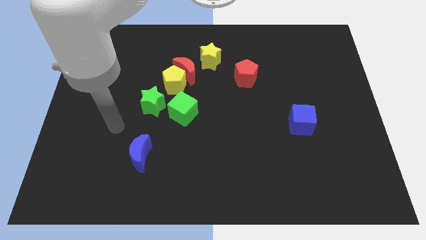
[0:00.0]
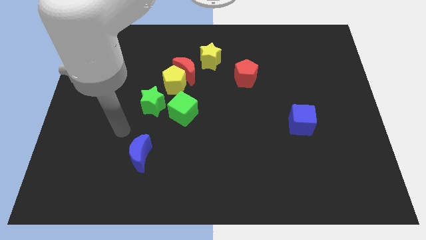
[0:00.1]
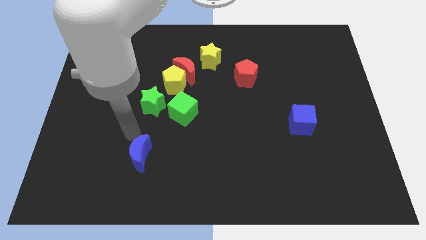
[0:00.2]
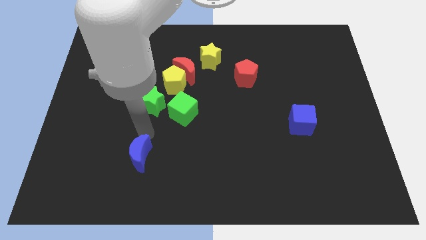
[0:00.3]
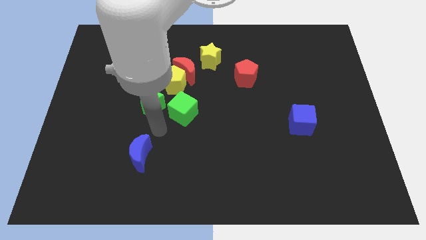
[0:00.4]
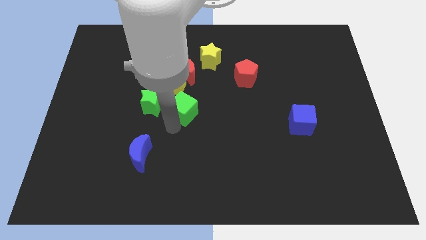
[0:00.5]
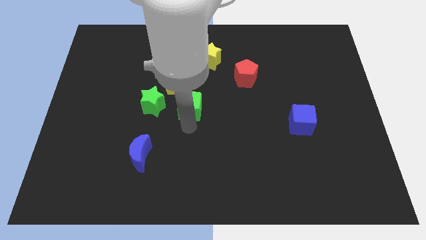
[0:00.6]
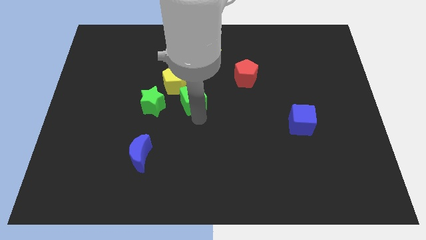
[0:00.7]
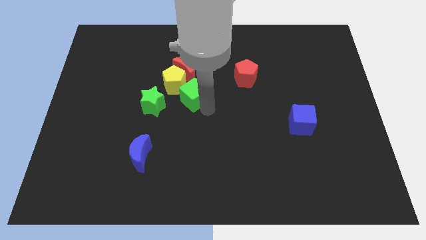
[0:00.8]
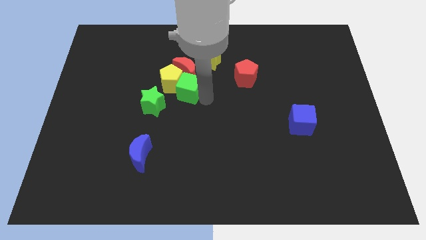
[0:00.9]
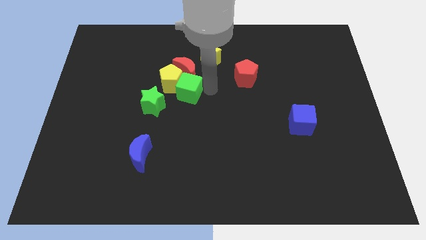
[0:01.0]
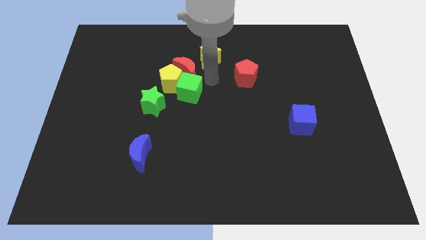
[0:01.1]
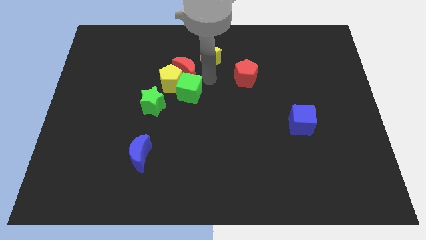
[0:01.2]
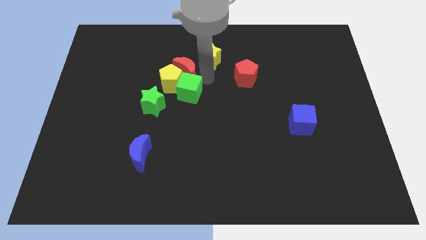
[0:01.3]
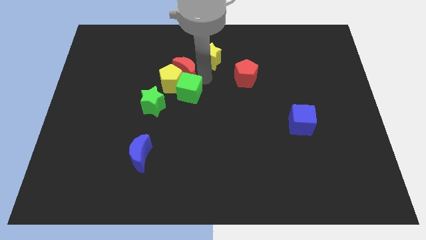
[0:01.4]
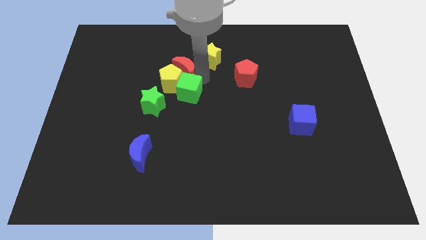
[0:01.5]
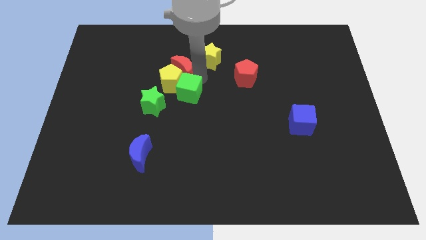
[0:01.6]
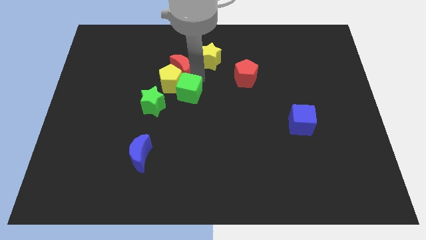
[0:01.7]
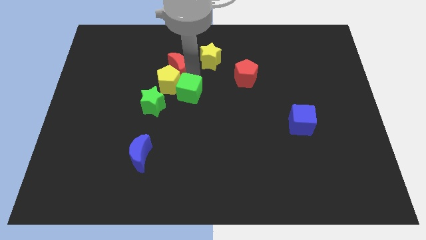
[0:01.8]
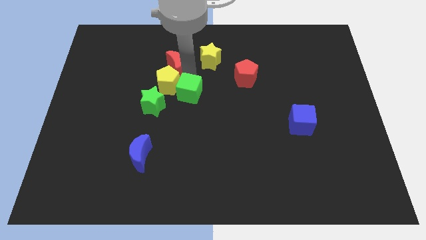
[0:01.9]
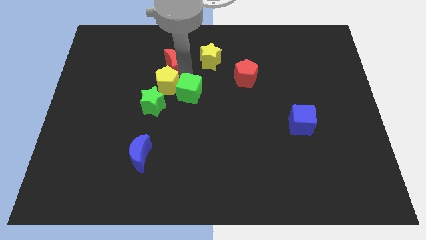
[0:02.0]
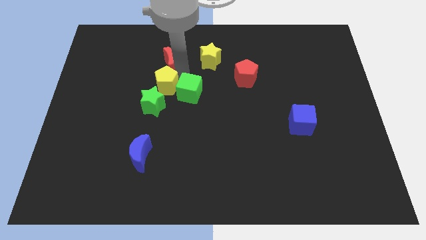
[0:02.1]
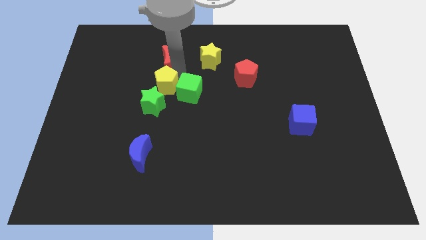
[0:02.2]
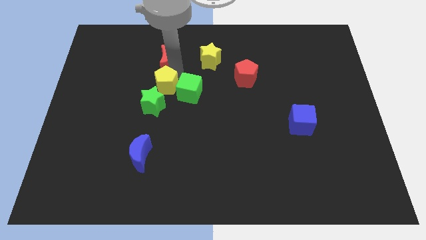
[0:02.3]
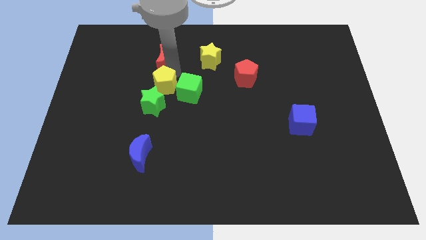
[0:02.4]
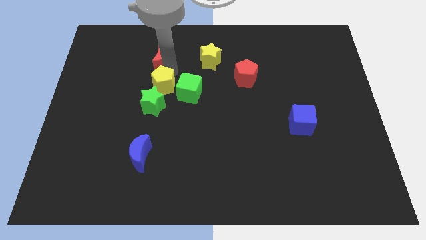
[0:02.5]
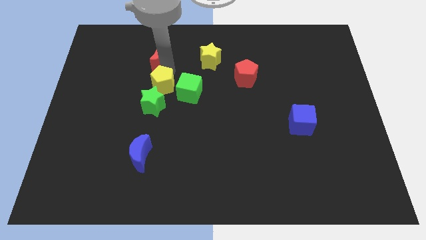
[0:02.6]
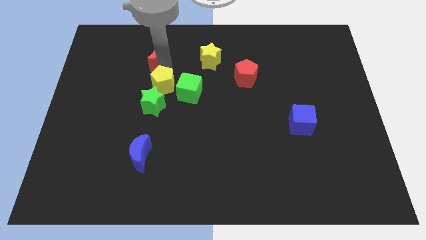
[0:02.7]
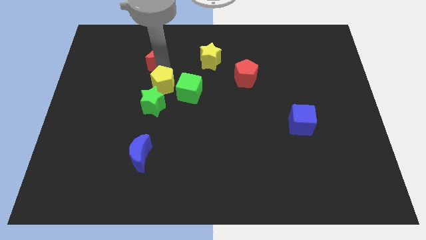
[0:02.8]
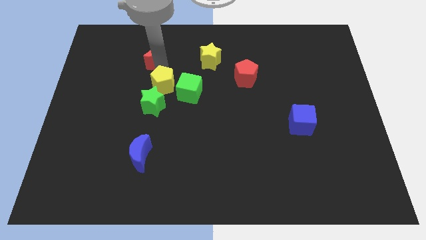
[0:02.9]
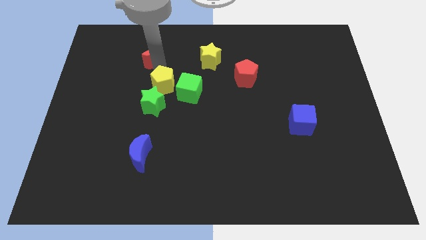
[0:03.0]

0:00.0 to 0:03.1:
pull the red moon apart from the yellow pentagon and yellow star

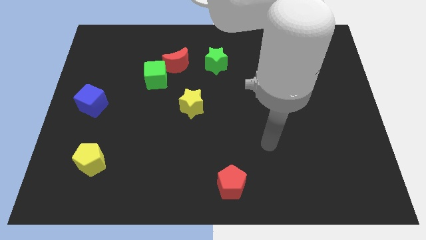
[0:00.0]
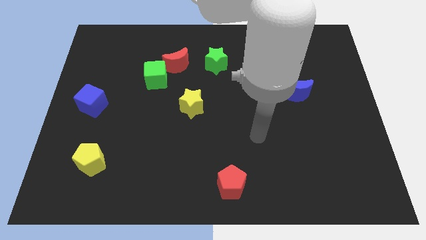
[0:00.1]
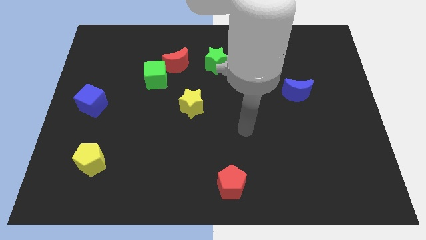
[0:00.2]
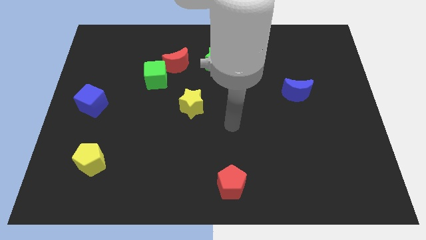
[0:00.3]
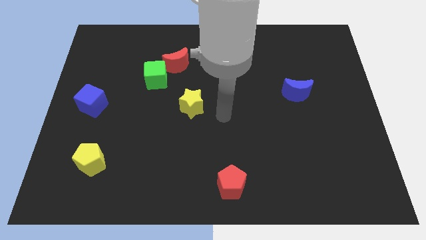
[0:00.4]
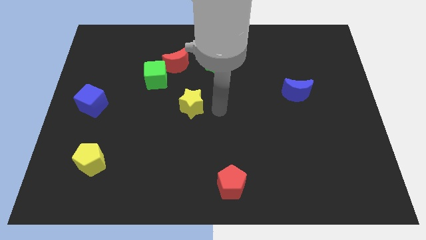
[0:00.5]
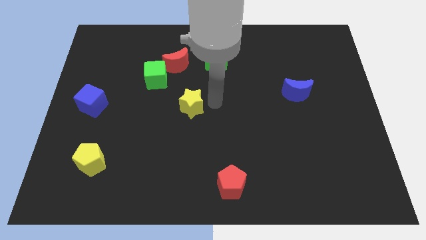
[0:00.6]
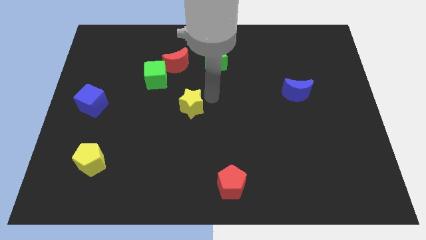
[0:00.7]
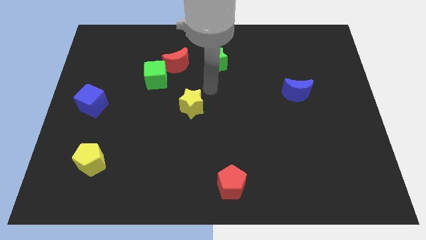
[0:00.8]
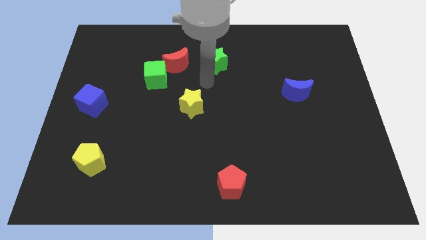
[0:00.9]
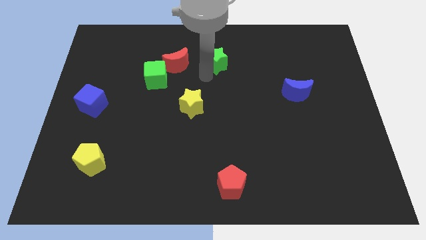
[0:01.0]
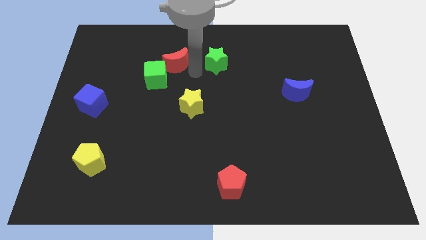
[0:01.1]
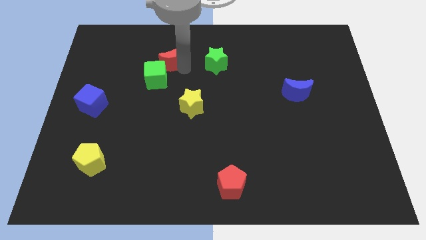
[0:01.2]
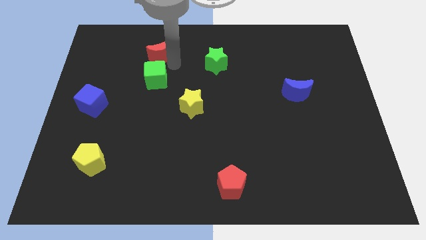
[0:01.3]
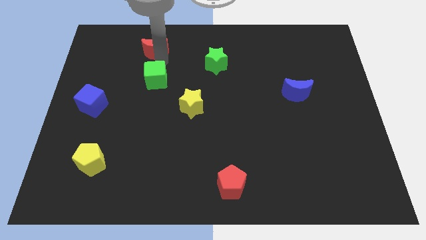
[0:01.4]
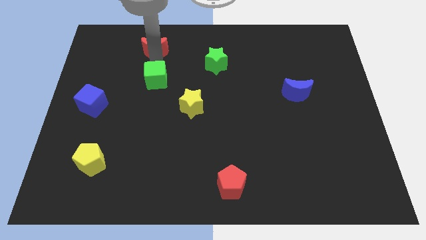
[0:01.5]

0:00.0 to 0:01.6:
pull the green cube apart from the red moon

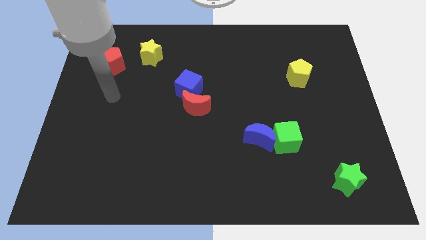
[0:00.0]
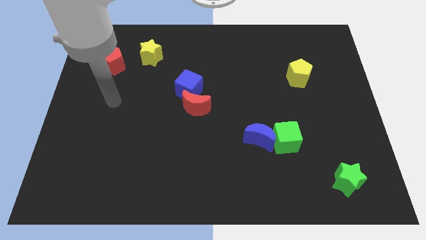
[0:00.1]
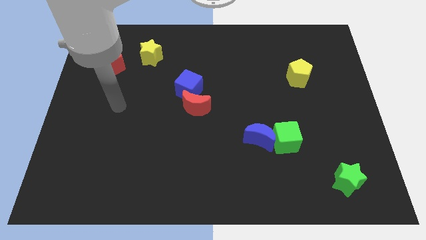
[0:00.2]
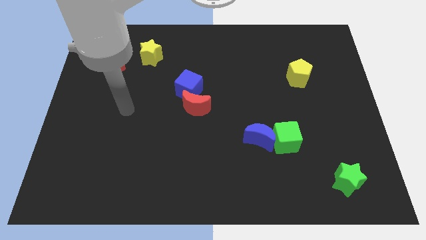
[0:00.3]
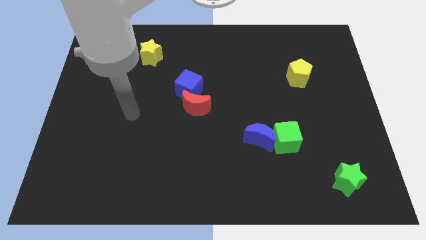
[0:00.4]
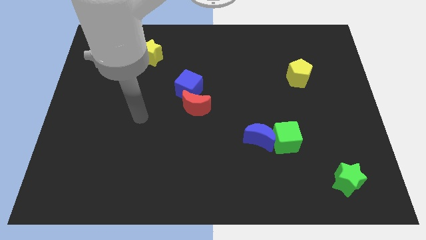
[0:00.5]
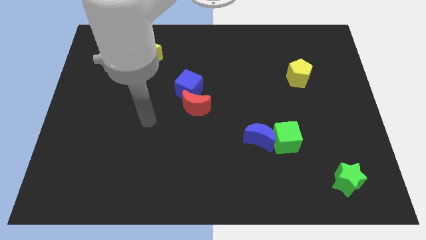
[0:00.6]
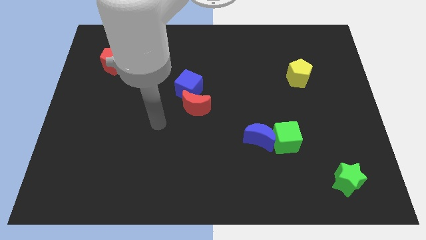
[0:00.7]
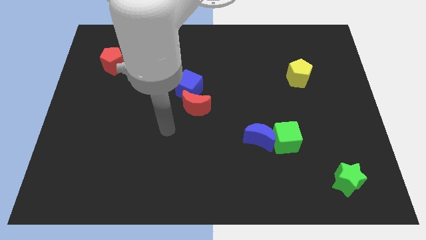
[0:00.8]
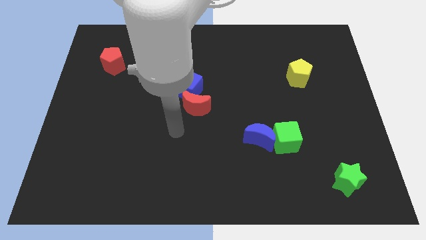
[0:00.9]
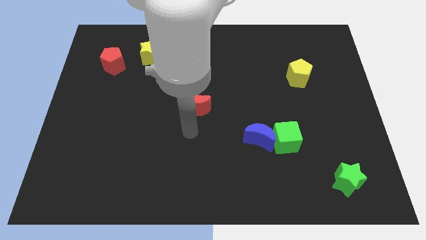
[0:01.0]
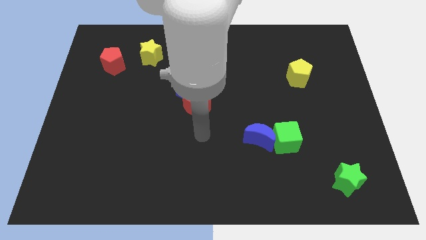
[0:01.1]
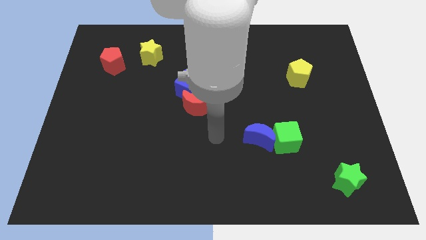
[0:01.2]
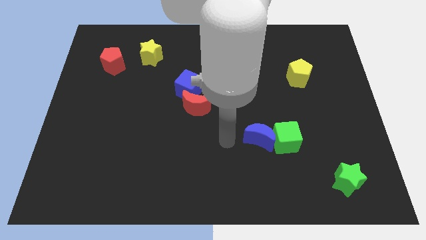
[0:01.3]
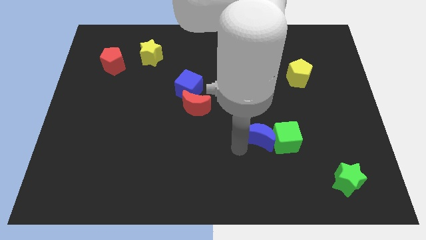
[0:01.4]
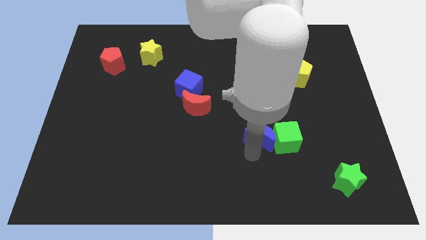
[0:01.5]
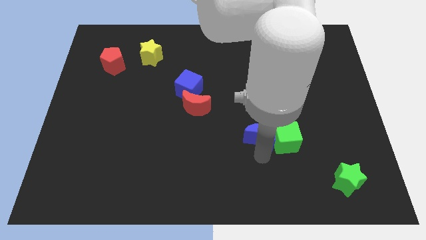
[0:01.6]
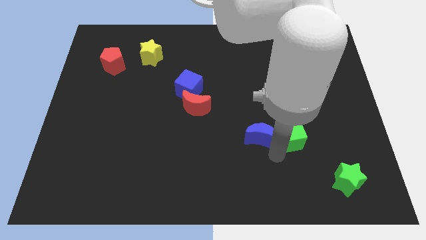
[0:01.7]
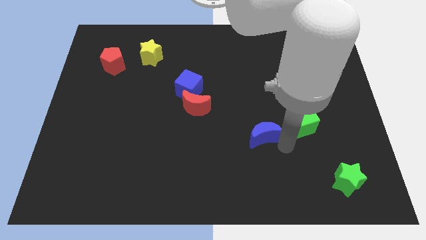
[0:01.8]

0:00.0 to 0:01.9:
separate the blue moon from the green cube

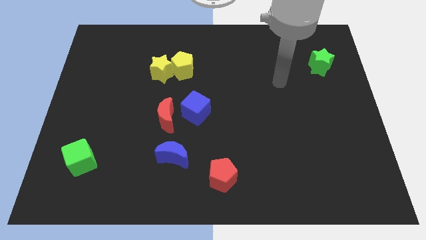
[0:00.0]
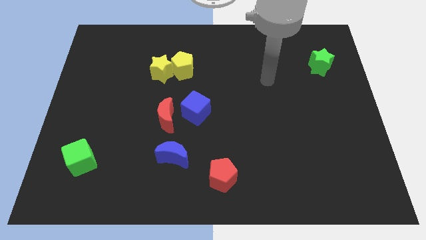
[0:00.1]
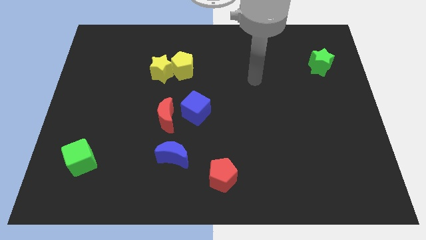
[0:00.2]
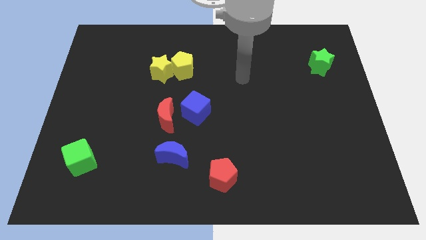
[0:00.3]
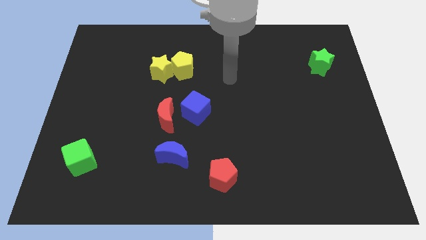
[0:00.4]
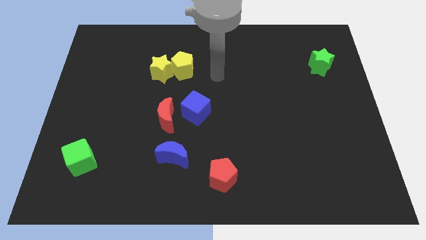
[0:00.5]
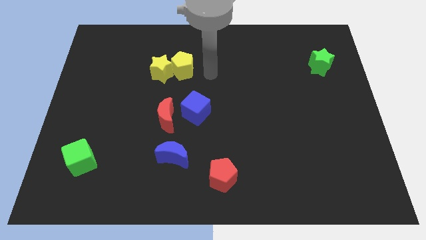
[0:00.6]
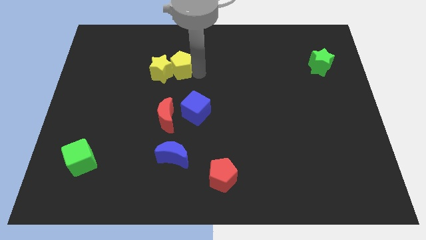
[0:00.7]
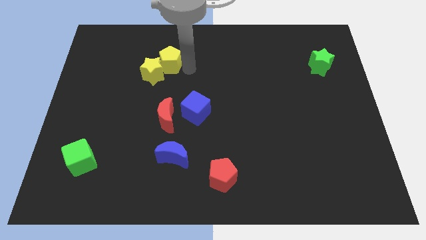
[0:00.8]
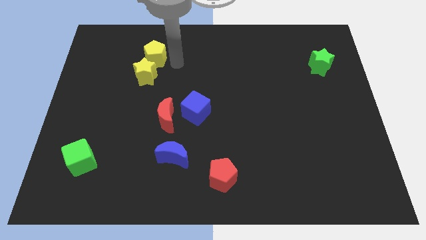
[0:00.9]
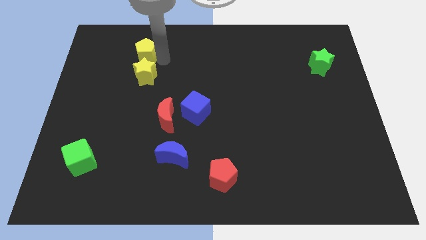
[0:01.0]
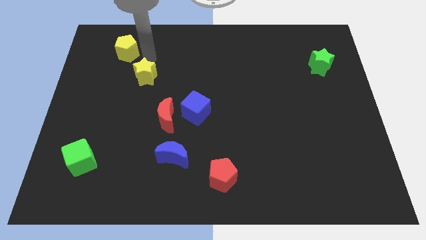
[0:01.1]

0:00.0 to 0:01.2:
separate the yellow star from the yellow pentagon

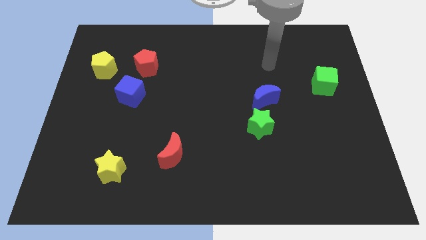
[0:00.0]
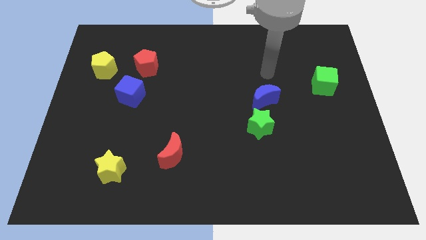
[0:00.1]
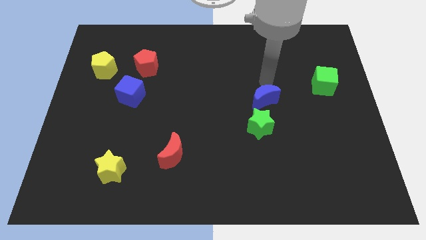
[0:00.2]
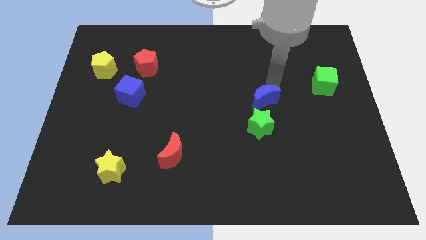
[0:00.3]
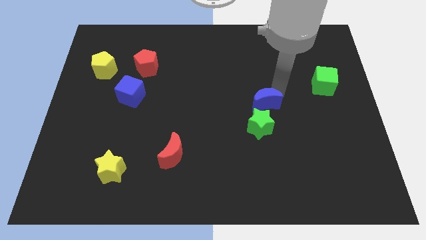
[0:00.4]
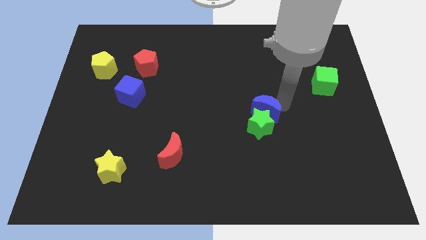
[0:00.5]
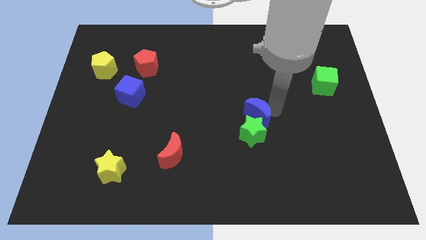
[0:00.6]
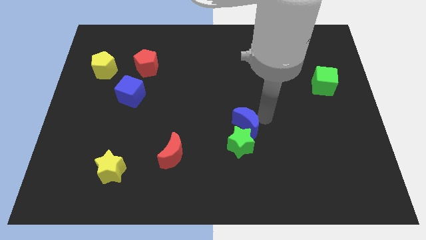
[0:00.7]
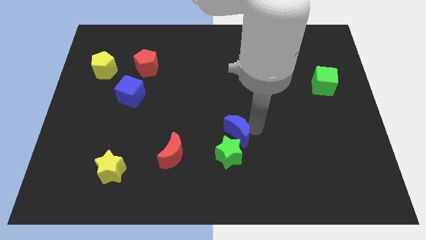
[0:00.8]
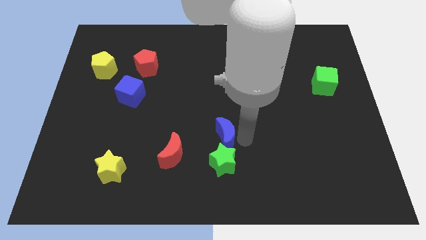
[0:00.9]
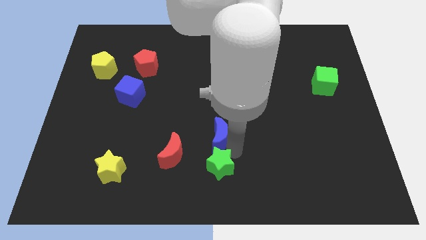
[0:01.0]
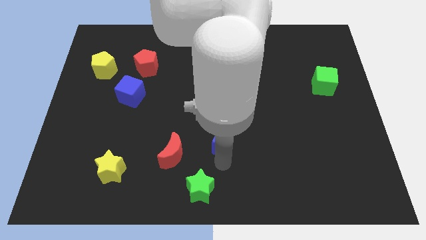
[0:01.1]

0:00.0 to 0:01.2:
pull the blue moon apart from the green star

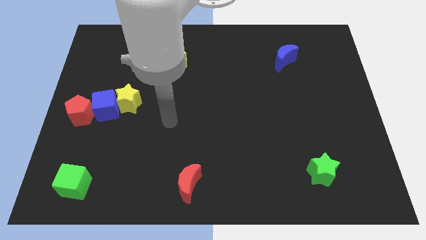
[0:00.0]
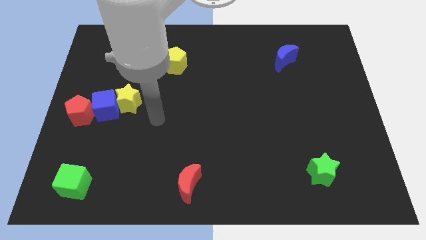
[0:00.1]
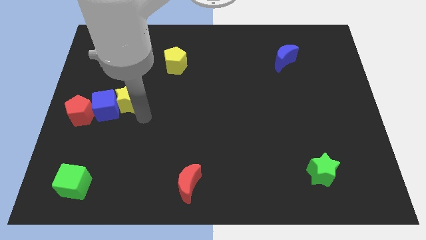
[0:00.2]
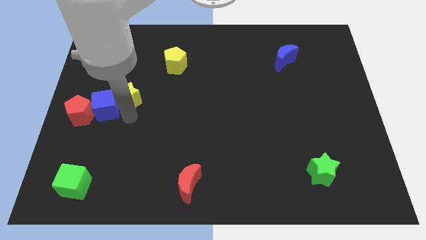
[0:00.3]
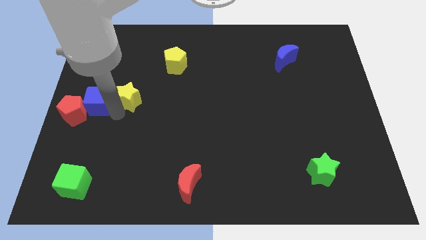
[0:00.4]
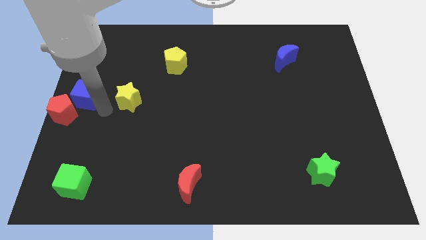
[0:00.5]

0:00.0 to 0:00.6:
move the yellow star away from the blue cube
